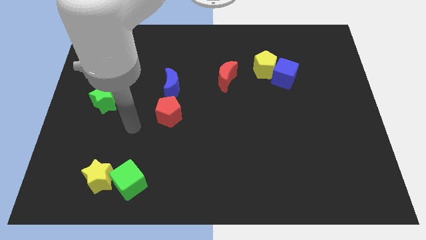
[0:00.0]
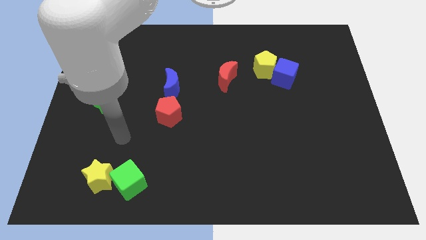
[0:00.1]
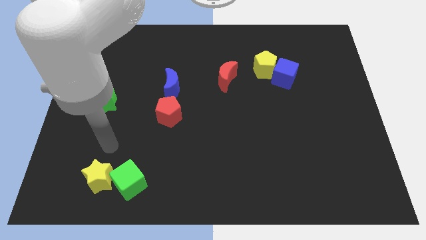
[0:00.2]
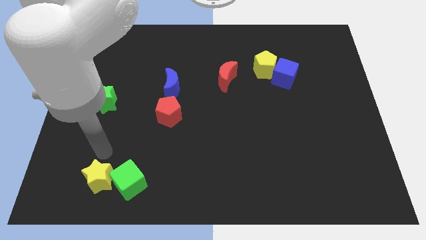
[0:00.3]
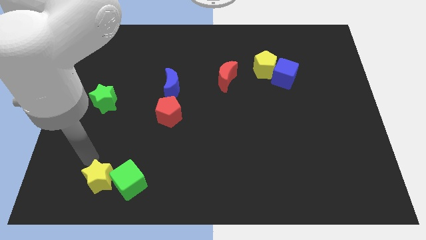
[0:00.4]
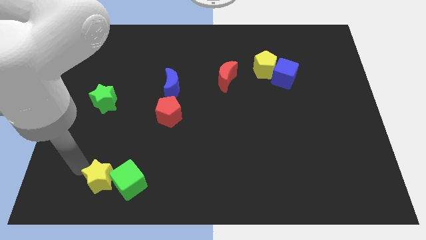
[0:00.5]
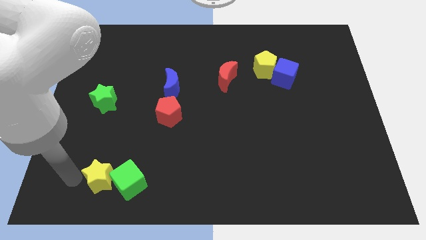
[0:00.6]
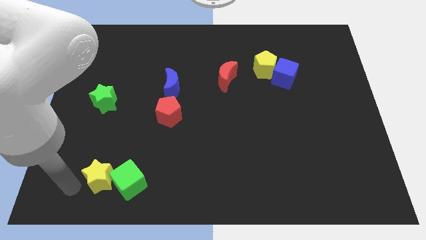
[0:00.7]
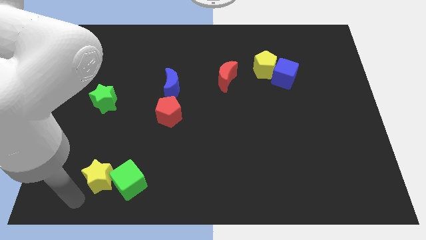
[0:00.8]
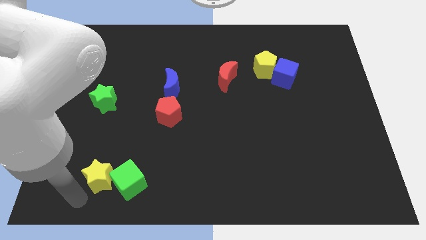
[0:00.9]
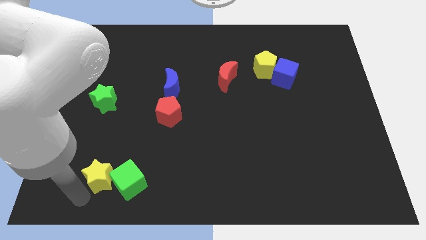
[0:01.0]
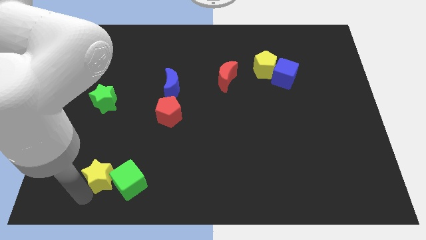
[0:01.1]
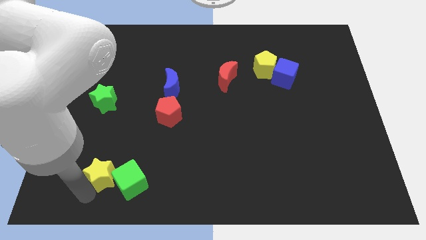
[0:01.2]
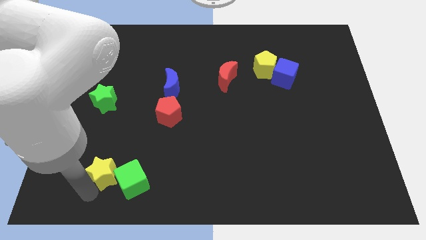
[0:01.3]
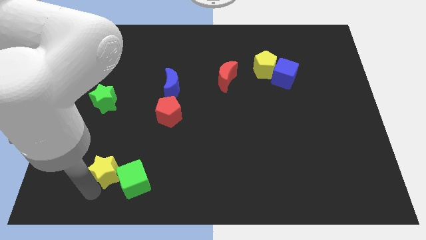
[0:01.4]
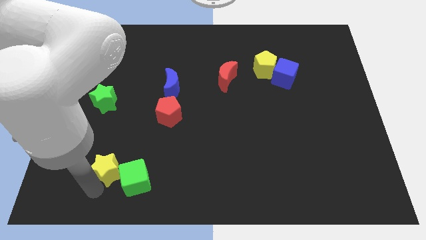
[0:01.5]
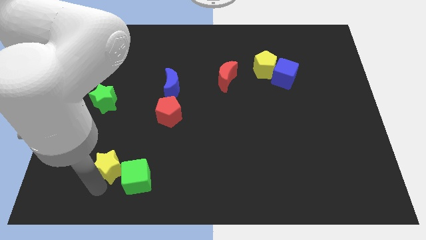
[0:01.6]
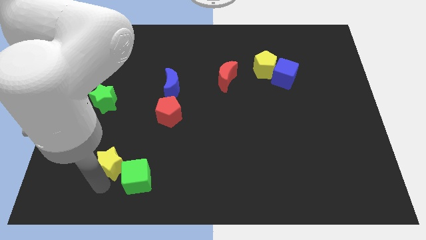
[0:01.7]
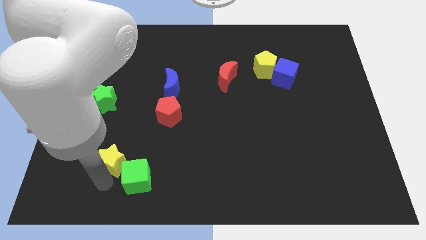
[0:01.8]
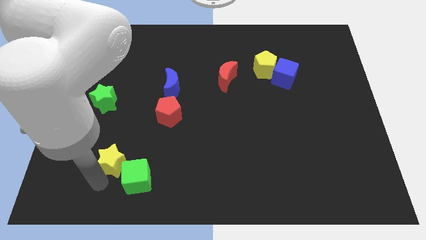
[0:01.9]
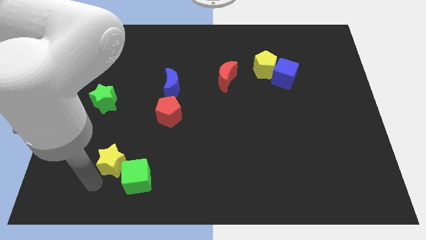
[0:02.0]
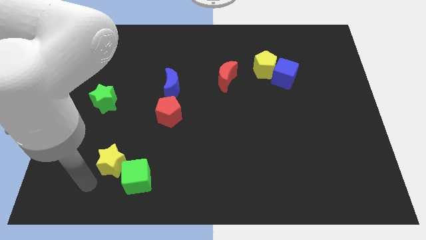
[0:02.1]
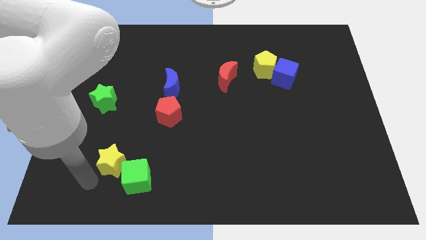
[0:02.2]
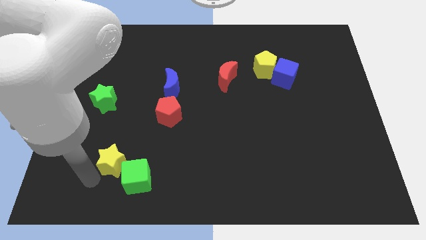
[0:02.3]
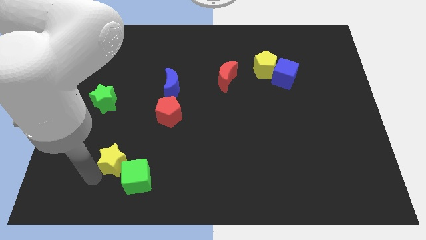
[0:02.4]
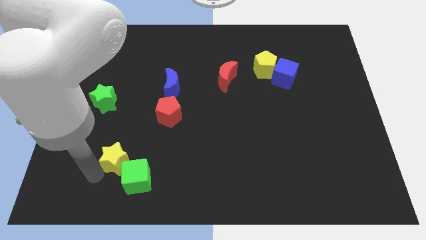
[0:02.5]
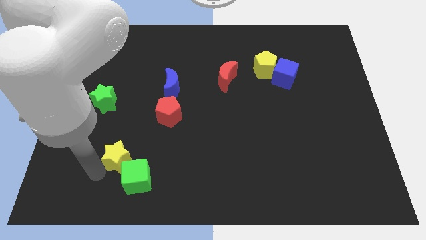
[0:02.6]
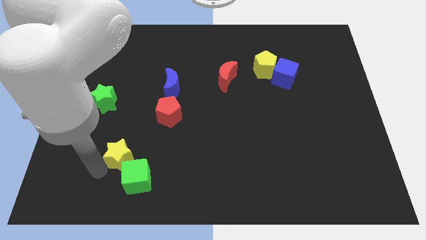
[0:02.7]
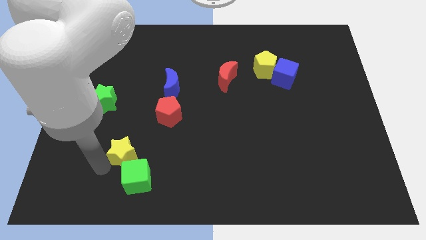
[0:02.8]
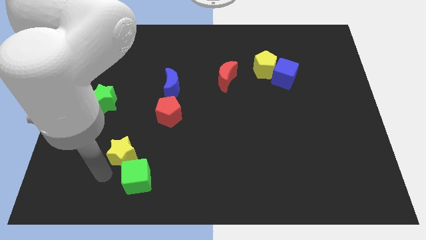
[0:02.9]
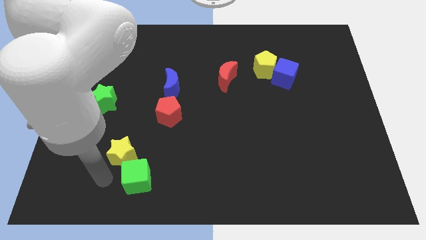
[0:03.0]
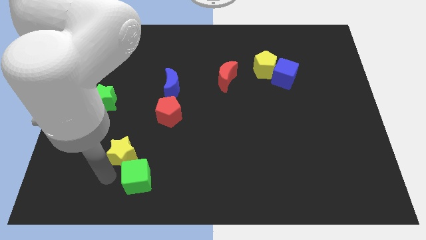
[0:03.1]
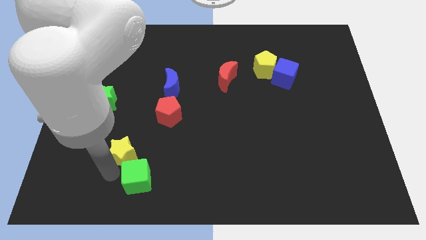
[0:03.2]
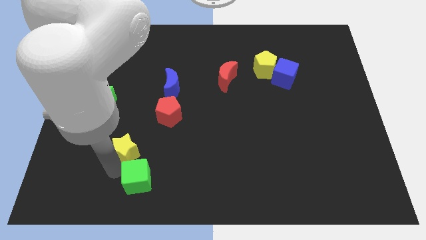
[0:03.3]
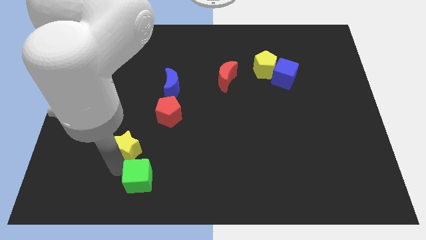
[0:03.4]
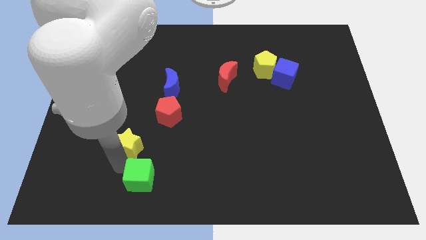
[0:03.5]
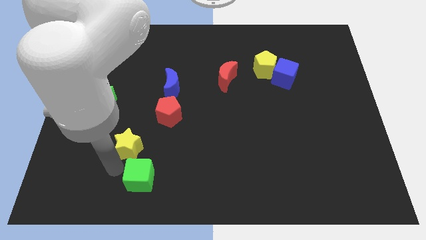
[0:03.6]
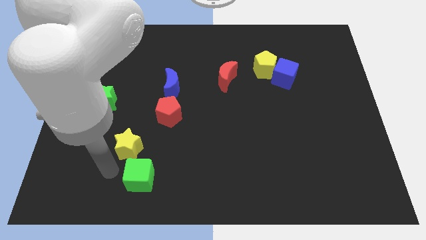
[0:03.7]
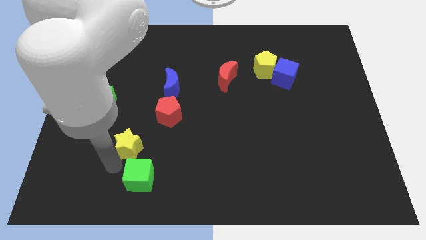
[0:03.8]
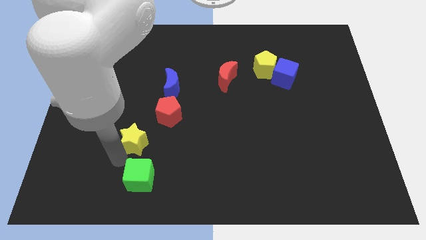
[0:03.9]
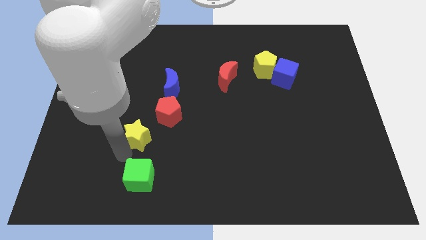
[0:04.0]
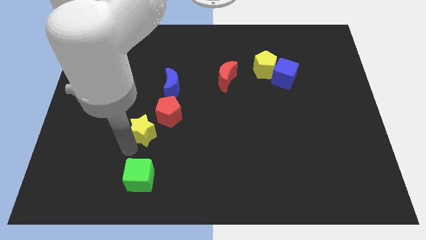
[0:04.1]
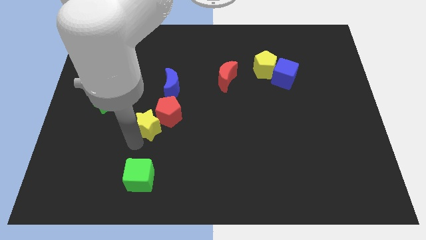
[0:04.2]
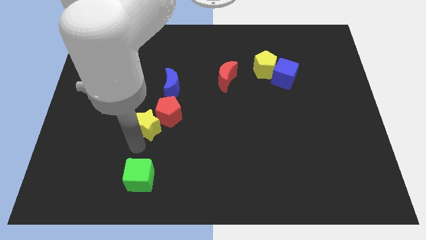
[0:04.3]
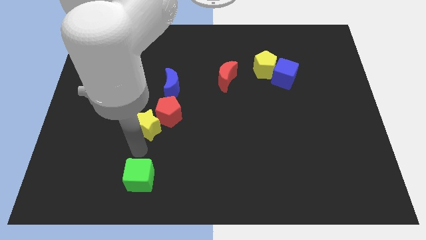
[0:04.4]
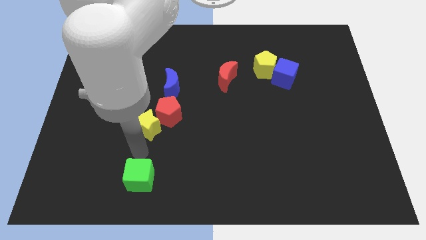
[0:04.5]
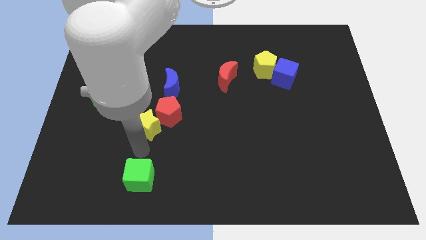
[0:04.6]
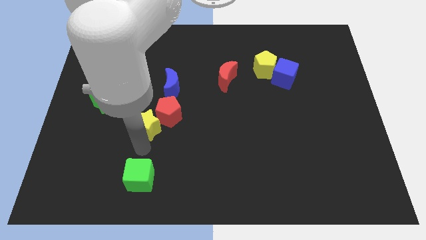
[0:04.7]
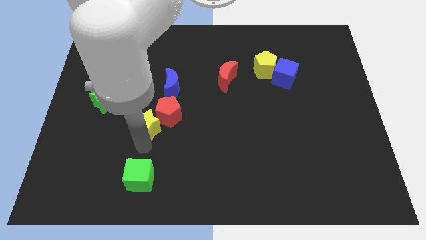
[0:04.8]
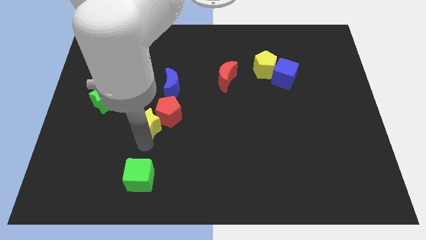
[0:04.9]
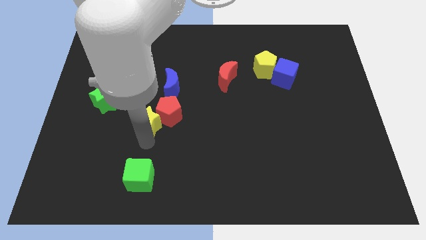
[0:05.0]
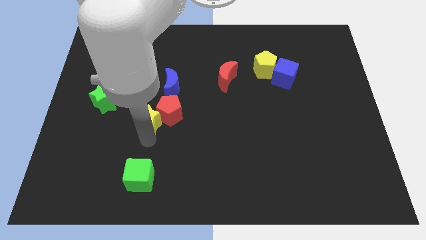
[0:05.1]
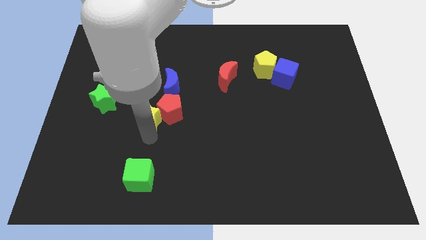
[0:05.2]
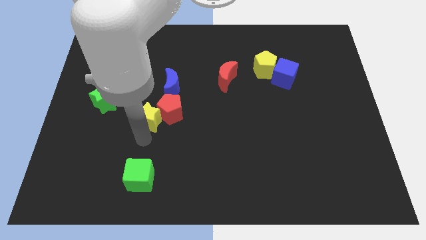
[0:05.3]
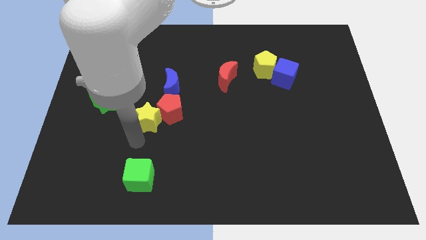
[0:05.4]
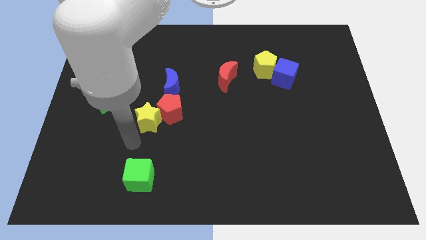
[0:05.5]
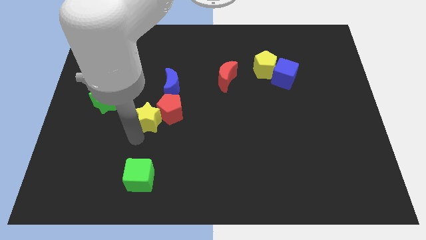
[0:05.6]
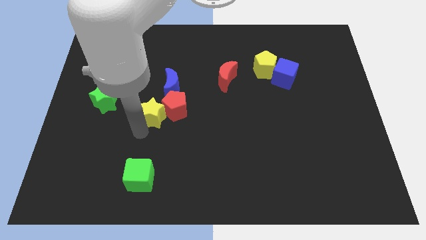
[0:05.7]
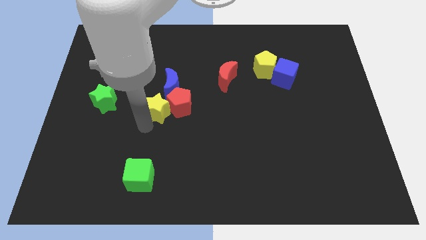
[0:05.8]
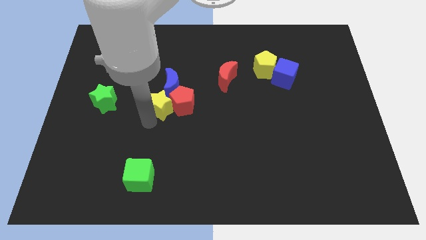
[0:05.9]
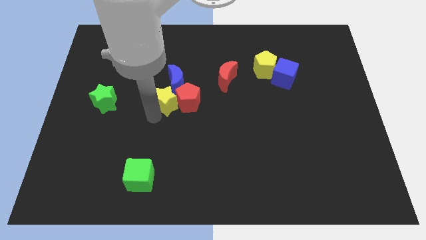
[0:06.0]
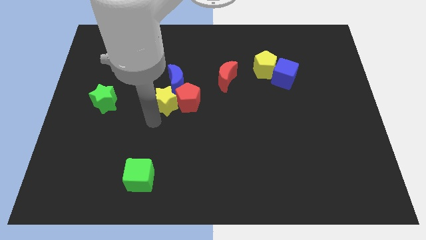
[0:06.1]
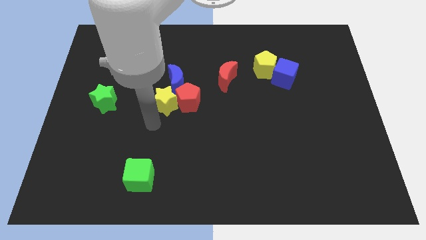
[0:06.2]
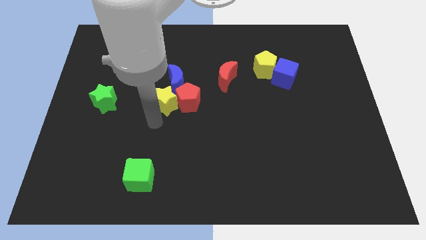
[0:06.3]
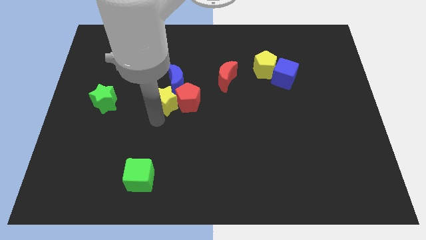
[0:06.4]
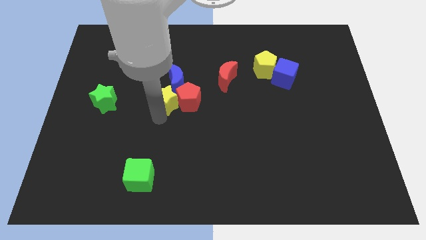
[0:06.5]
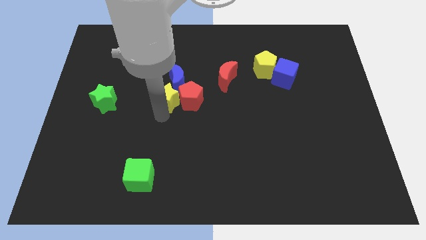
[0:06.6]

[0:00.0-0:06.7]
put the yellow star close to the blue moon
